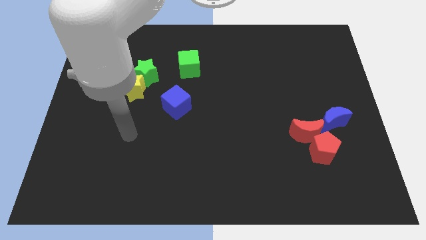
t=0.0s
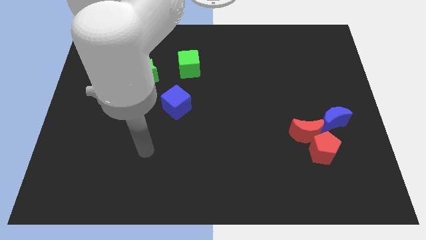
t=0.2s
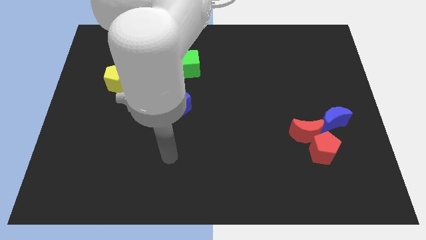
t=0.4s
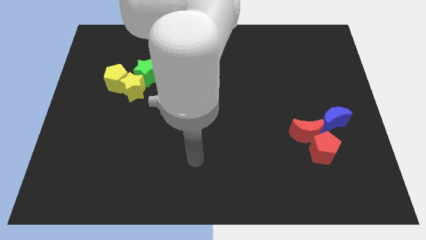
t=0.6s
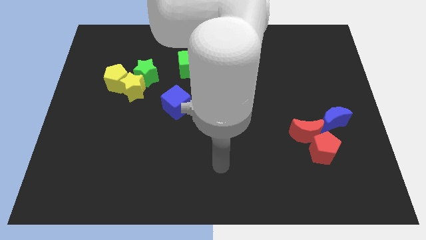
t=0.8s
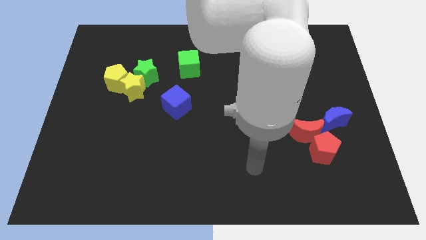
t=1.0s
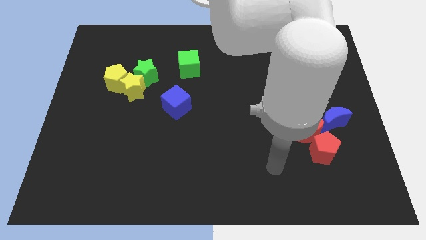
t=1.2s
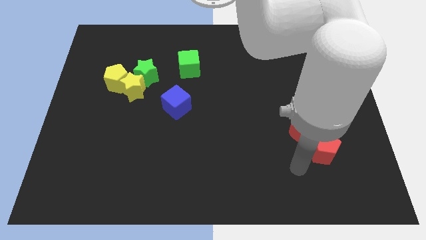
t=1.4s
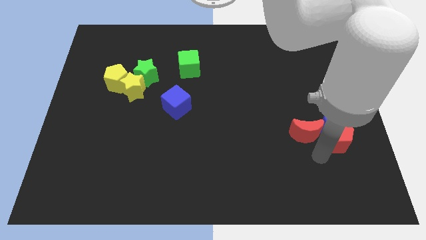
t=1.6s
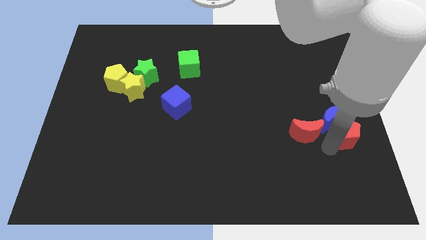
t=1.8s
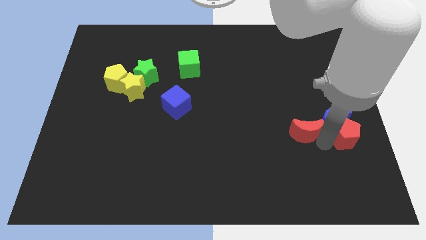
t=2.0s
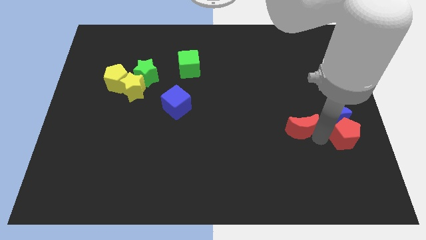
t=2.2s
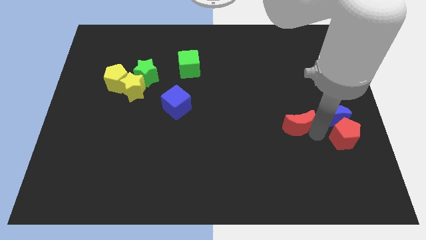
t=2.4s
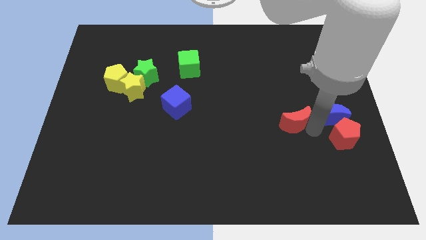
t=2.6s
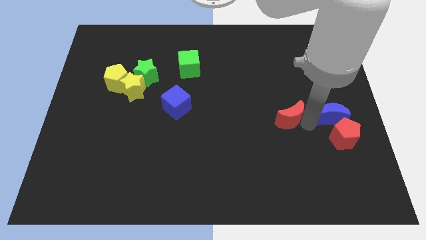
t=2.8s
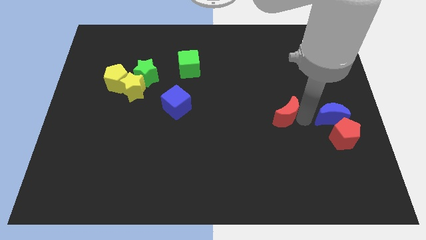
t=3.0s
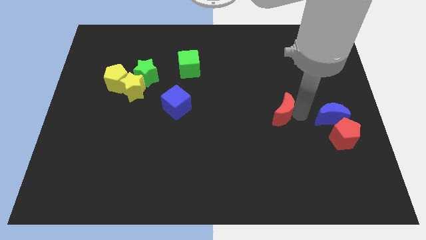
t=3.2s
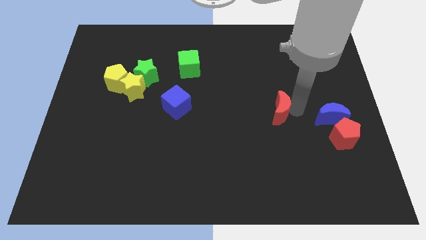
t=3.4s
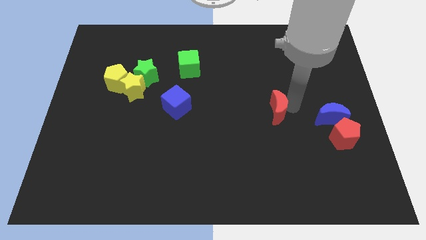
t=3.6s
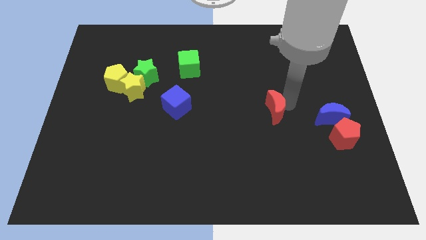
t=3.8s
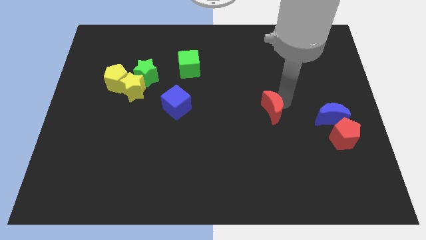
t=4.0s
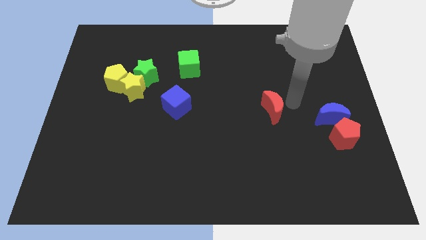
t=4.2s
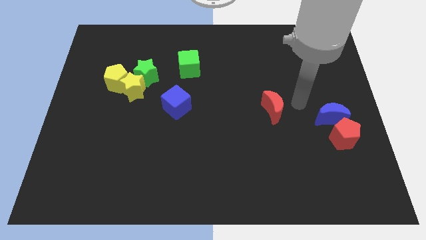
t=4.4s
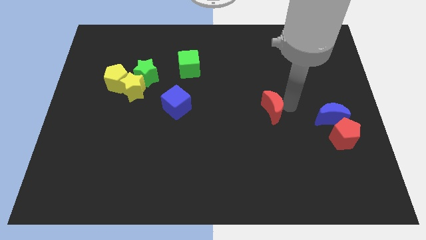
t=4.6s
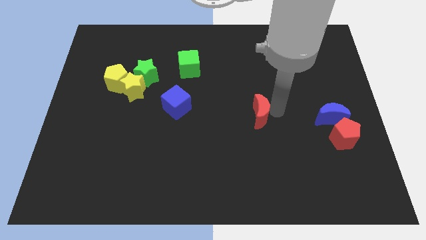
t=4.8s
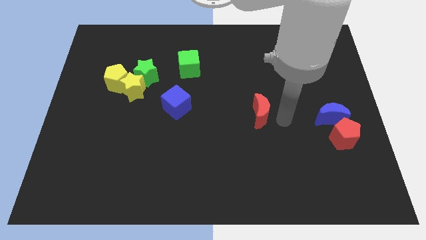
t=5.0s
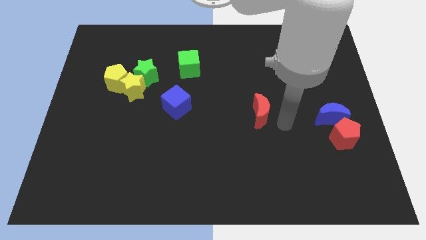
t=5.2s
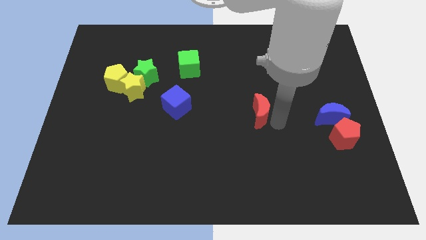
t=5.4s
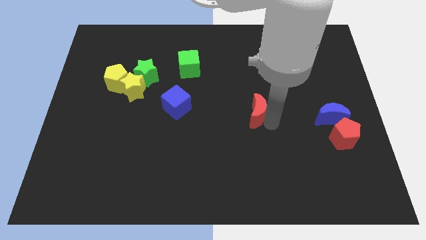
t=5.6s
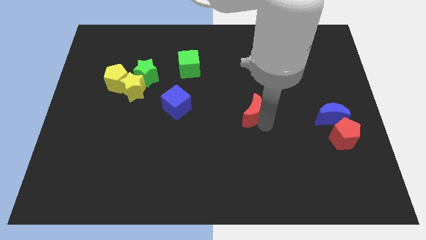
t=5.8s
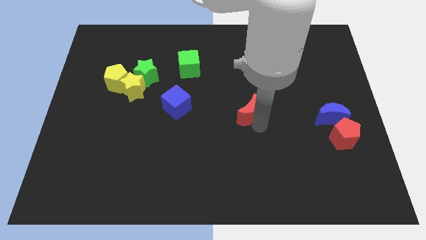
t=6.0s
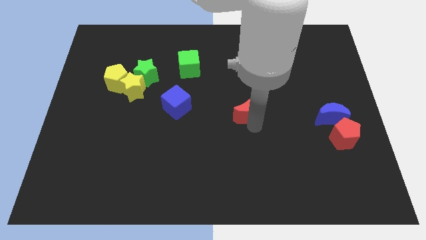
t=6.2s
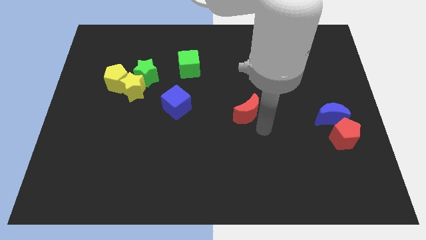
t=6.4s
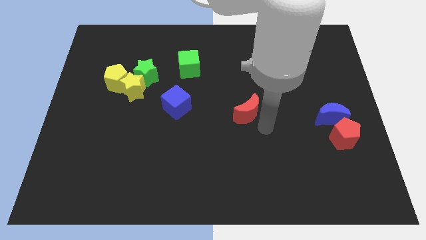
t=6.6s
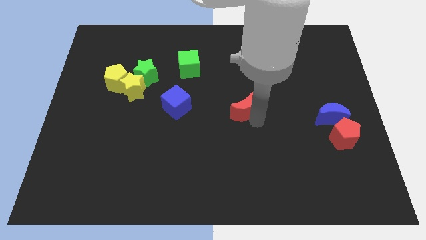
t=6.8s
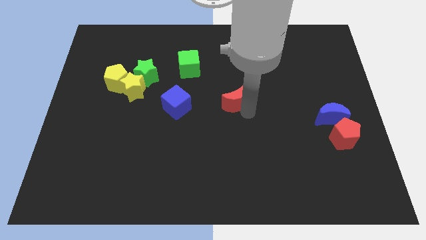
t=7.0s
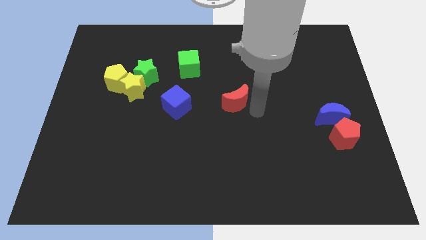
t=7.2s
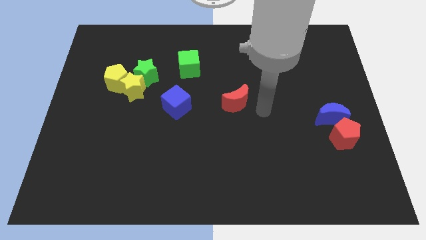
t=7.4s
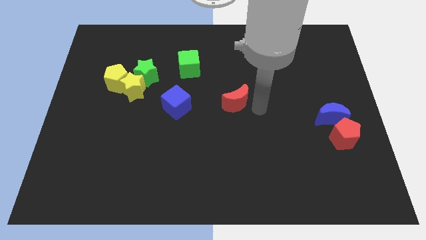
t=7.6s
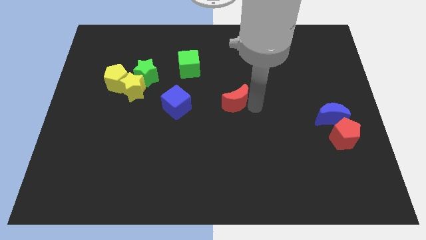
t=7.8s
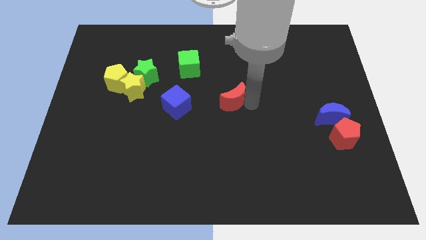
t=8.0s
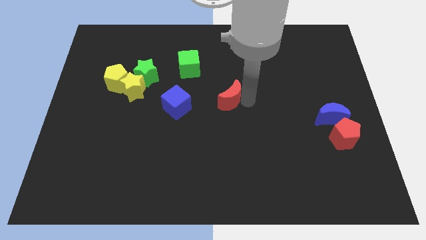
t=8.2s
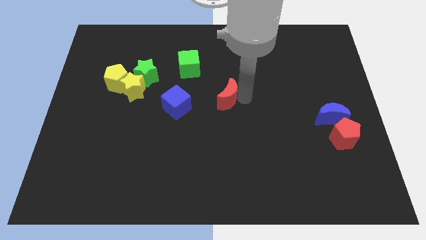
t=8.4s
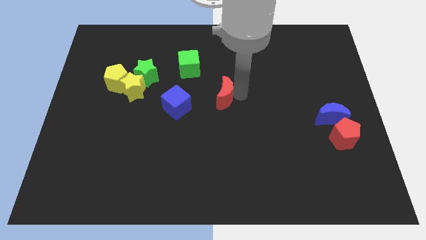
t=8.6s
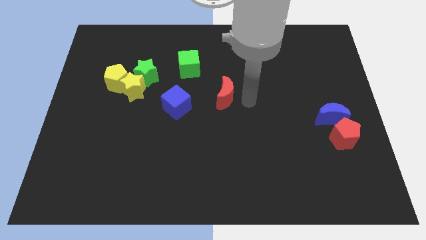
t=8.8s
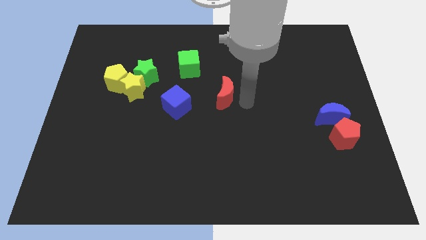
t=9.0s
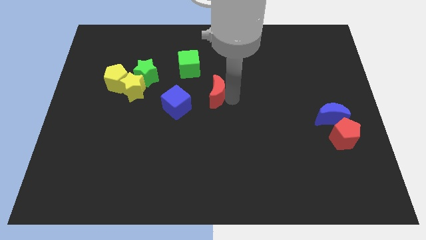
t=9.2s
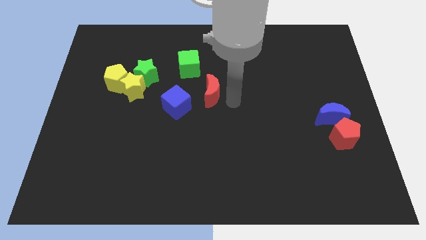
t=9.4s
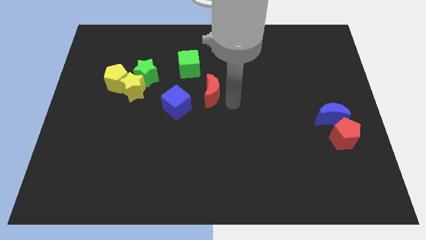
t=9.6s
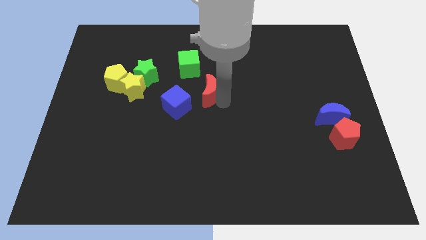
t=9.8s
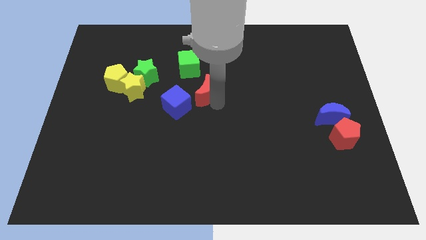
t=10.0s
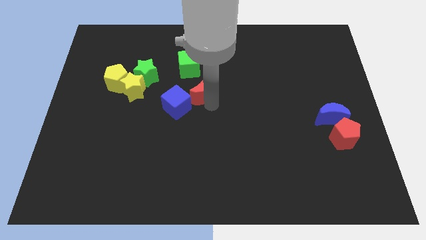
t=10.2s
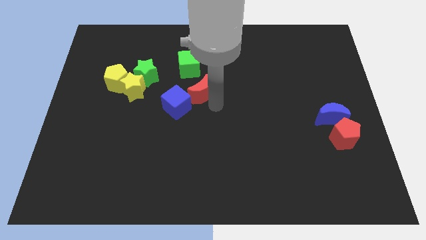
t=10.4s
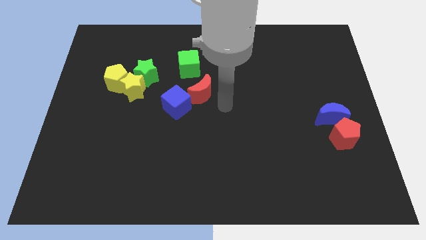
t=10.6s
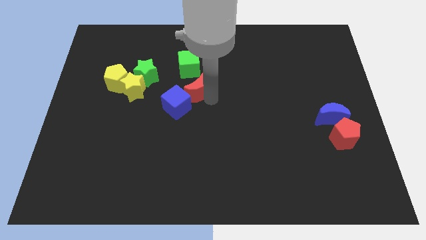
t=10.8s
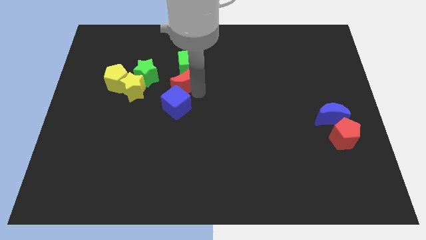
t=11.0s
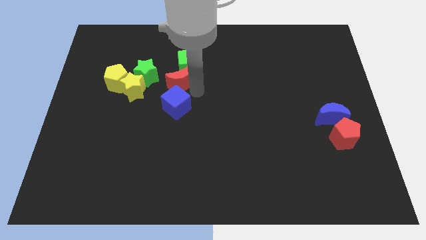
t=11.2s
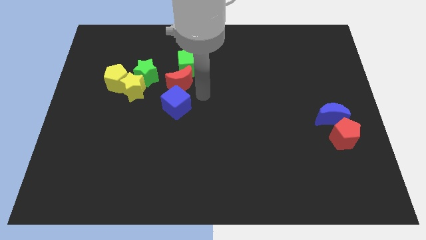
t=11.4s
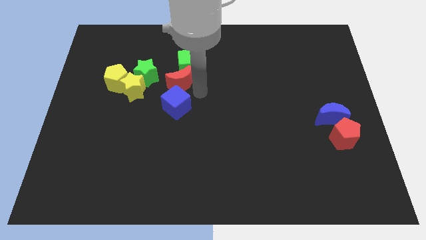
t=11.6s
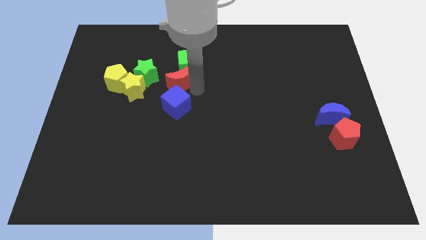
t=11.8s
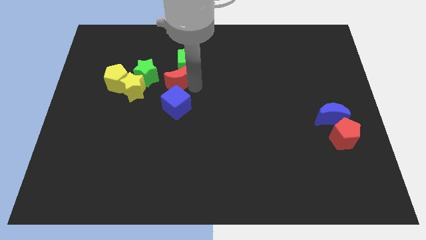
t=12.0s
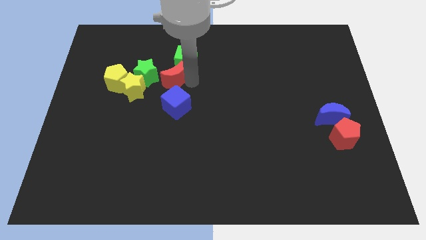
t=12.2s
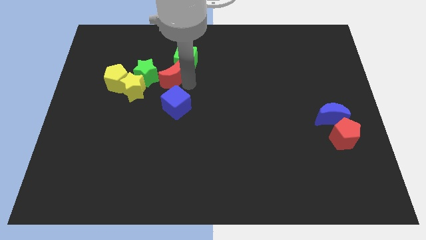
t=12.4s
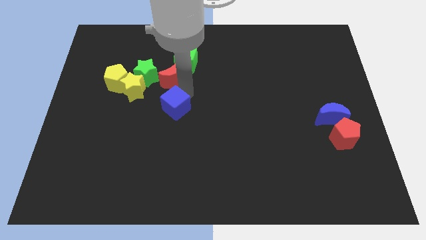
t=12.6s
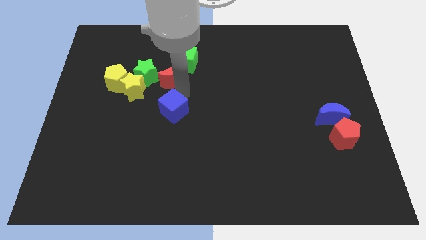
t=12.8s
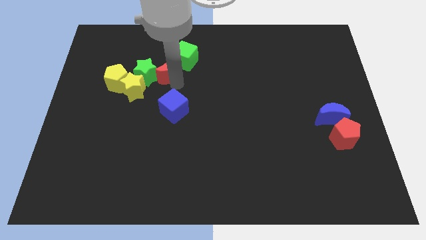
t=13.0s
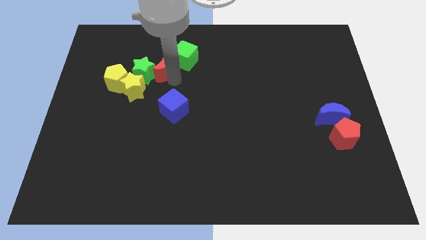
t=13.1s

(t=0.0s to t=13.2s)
slide the red moon to the left of the green cube

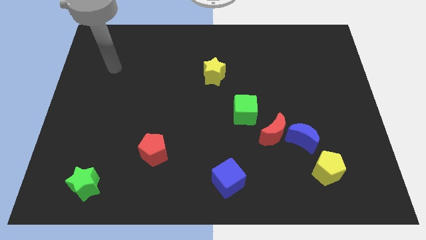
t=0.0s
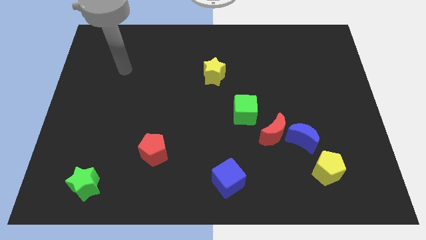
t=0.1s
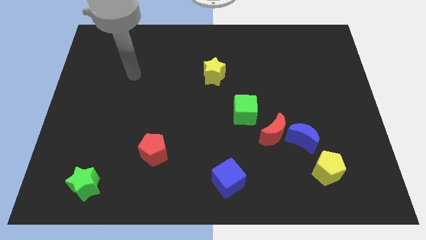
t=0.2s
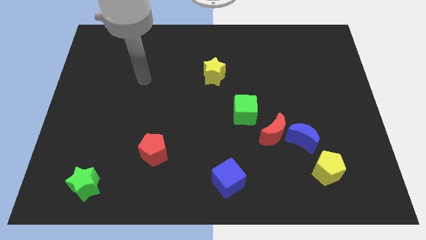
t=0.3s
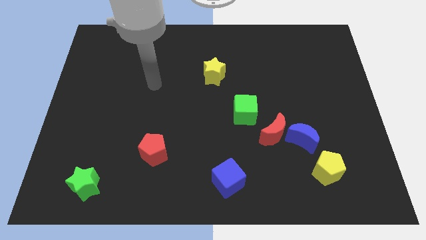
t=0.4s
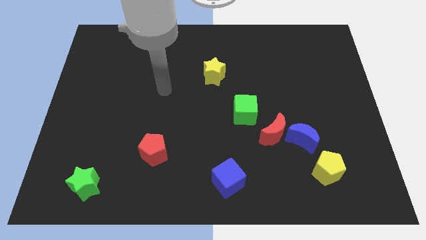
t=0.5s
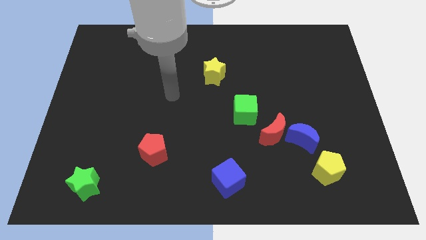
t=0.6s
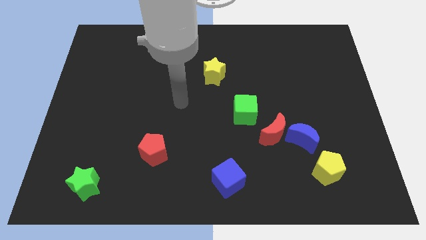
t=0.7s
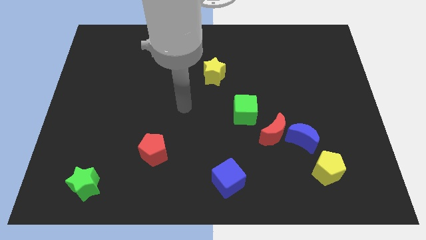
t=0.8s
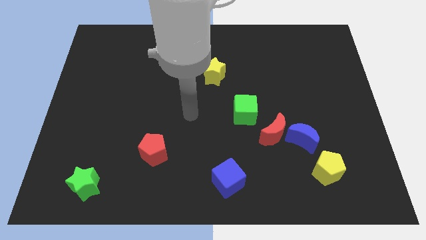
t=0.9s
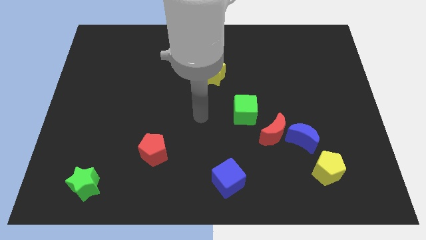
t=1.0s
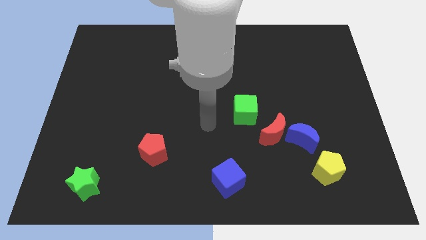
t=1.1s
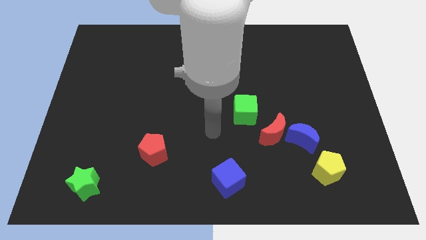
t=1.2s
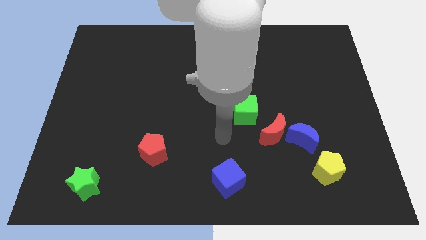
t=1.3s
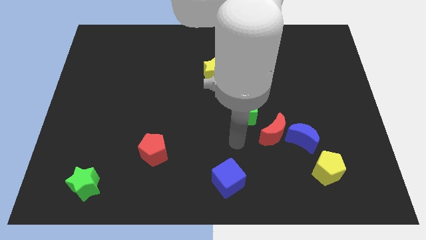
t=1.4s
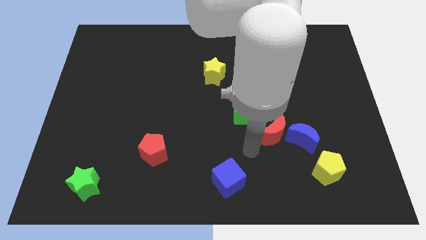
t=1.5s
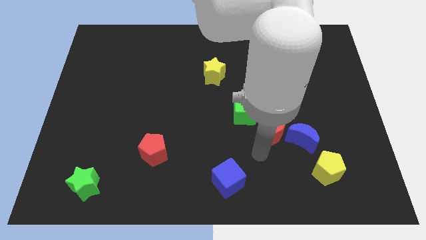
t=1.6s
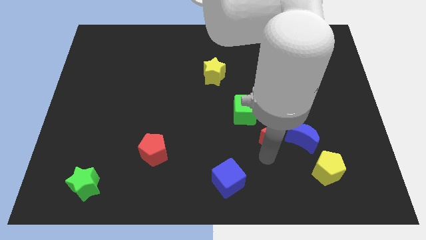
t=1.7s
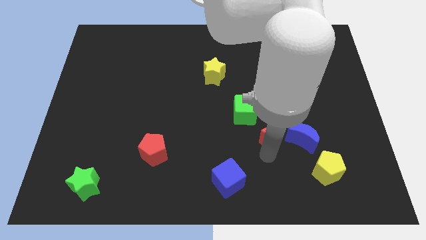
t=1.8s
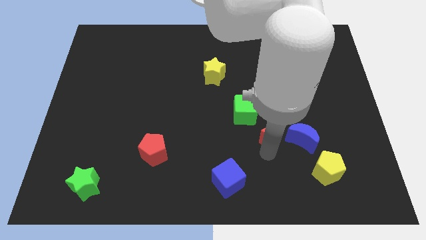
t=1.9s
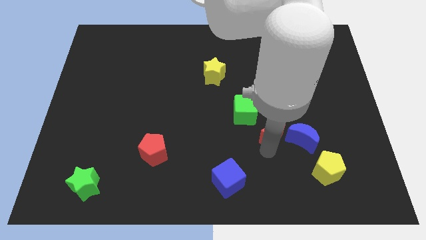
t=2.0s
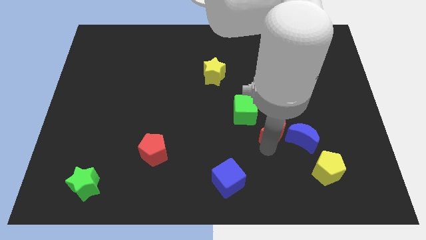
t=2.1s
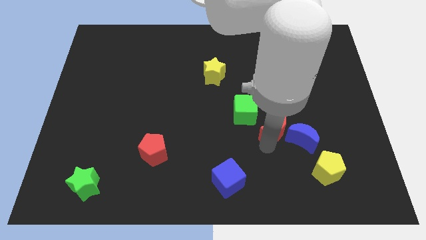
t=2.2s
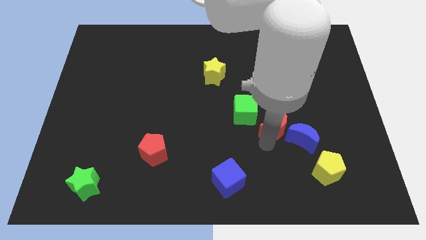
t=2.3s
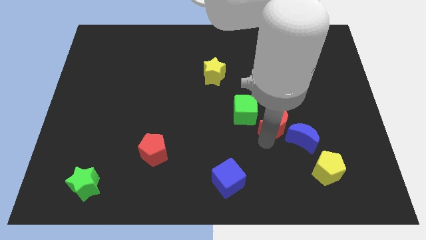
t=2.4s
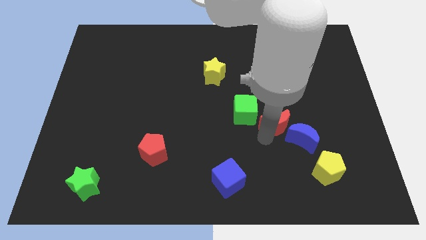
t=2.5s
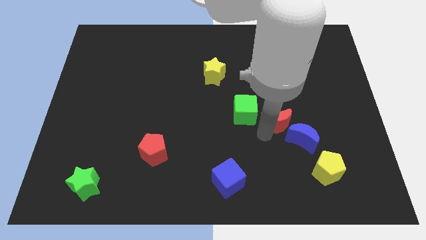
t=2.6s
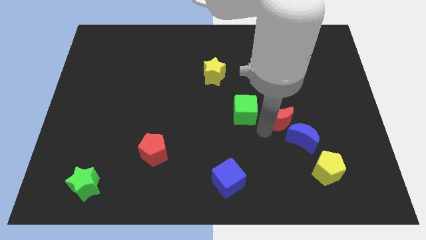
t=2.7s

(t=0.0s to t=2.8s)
move the red moon to the top side of the blue moon
